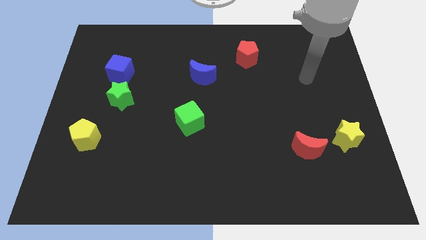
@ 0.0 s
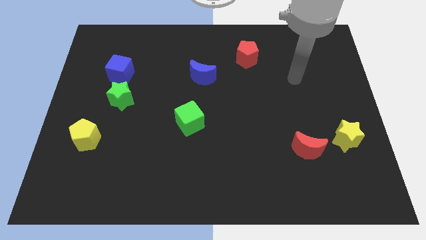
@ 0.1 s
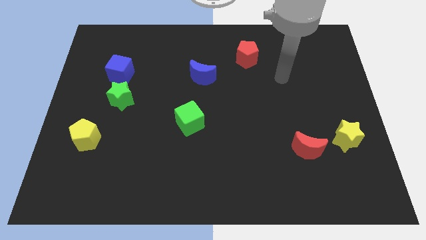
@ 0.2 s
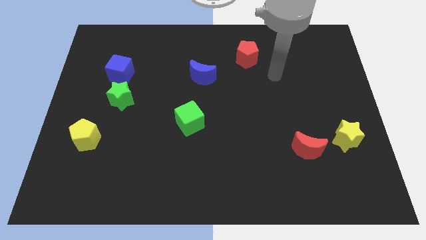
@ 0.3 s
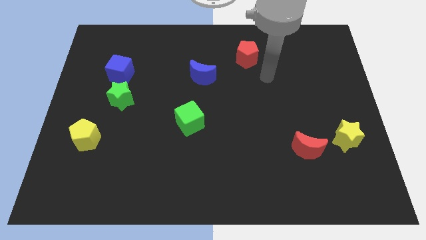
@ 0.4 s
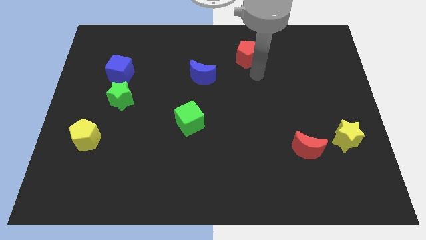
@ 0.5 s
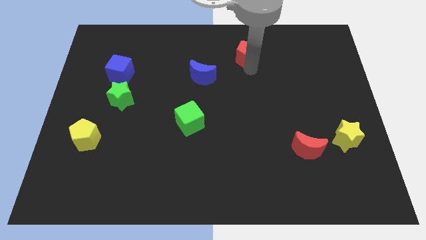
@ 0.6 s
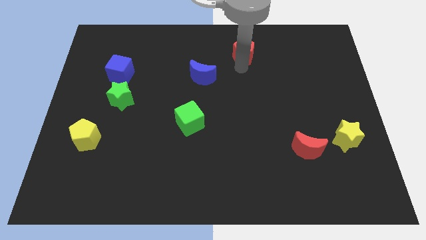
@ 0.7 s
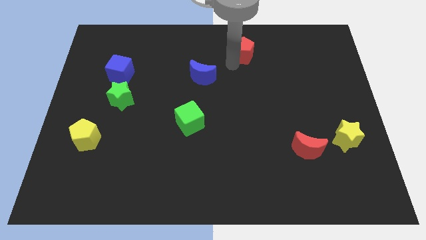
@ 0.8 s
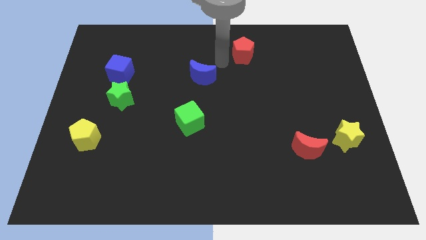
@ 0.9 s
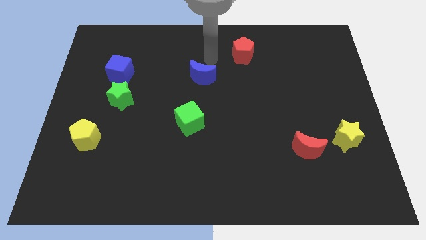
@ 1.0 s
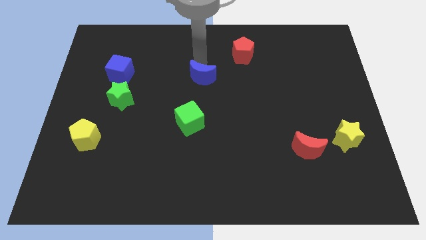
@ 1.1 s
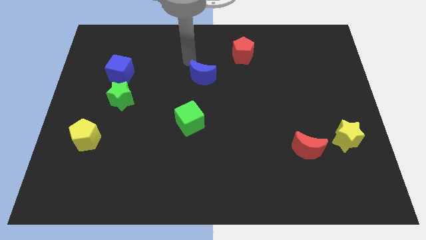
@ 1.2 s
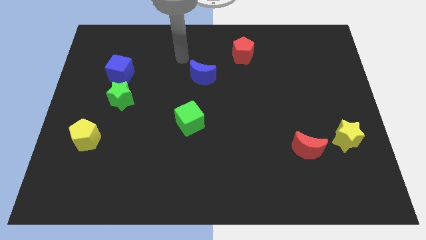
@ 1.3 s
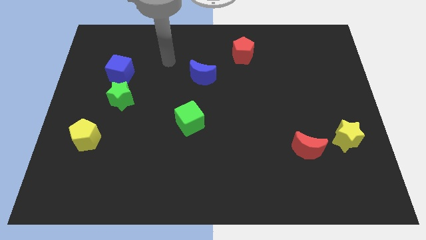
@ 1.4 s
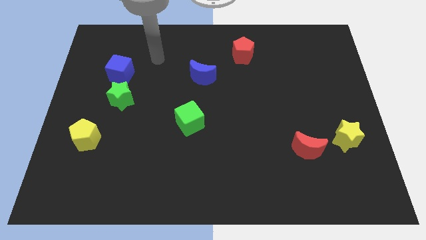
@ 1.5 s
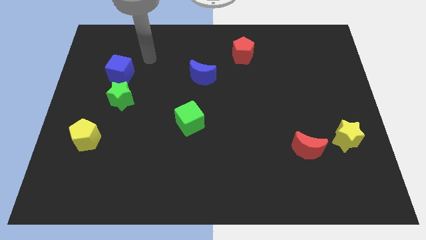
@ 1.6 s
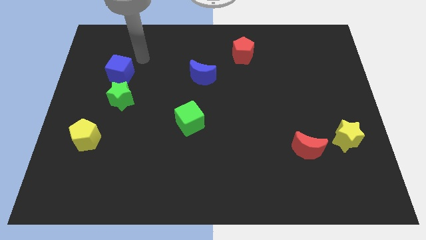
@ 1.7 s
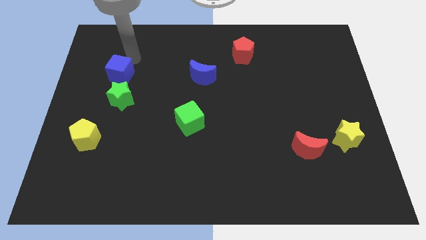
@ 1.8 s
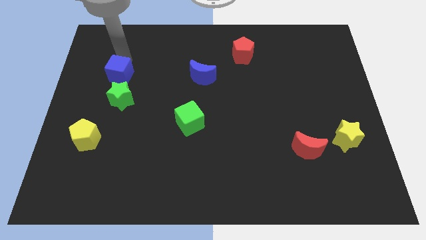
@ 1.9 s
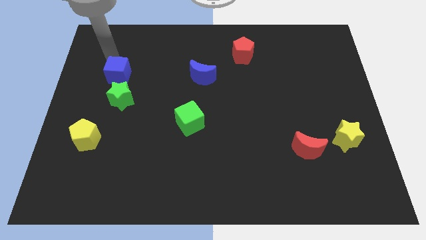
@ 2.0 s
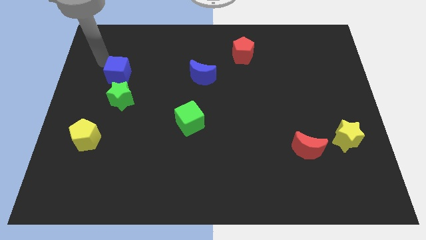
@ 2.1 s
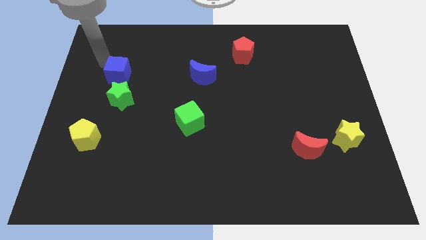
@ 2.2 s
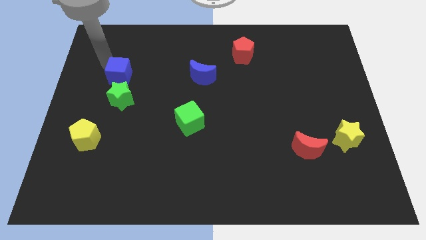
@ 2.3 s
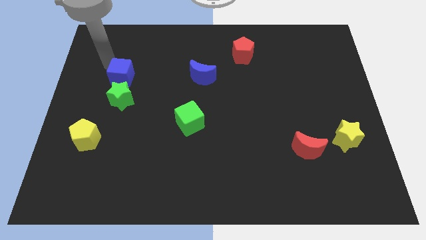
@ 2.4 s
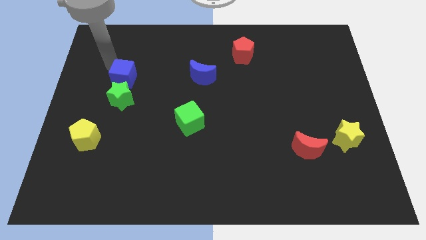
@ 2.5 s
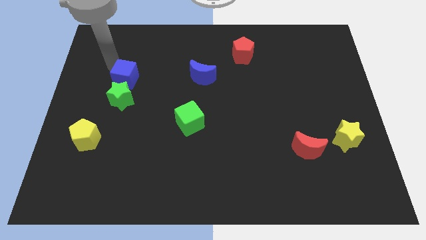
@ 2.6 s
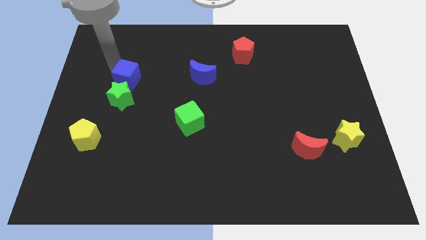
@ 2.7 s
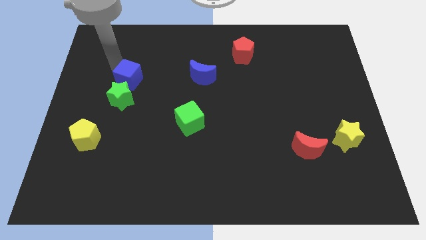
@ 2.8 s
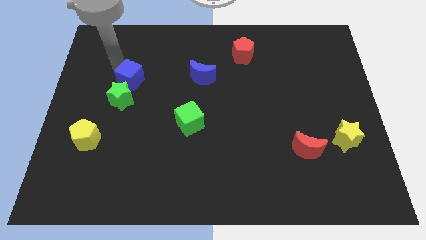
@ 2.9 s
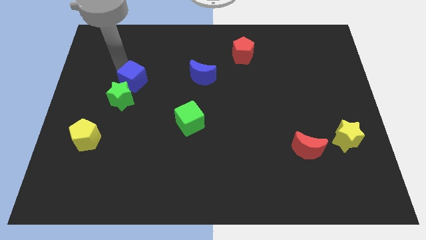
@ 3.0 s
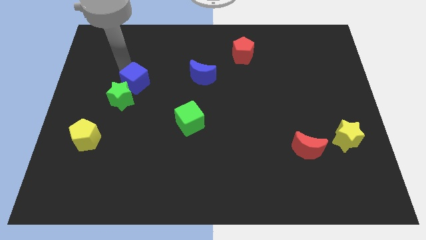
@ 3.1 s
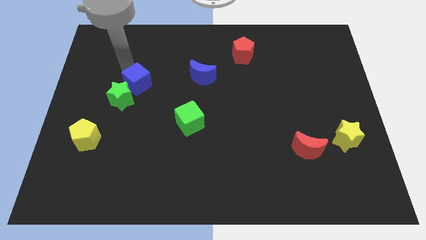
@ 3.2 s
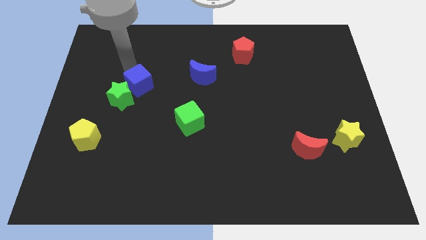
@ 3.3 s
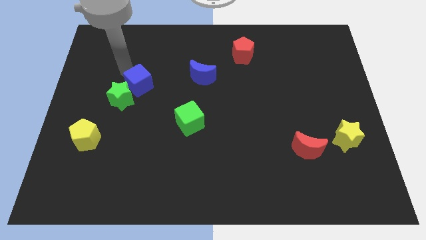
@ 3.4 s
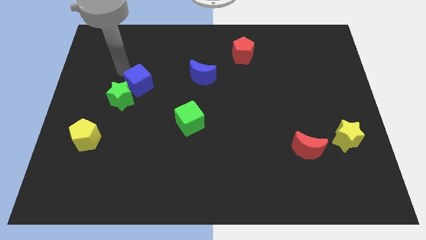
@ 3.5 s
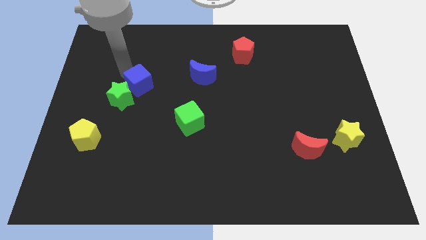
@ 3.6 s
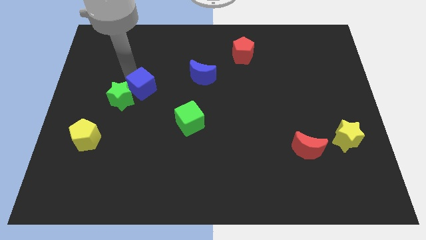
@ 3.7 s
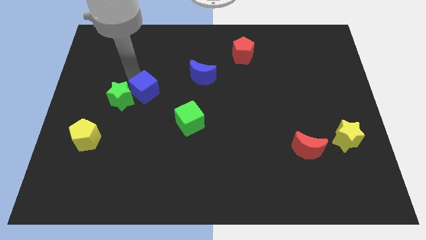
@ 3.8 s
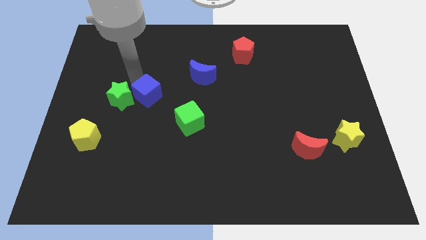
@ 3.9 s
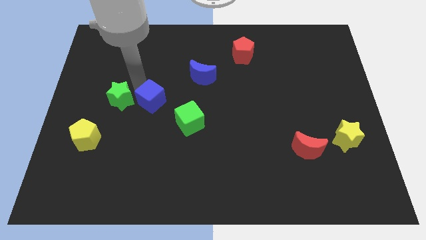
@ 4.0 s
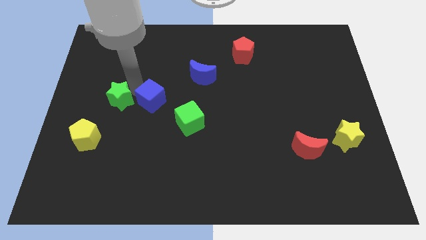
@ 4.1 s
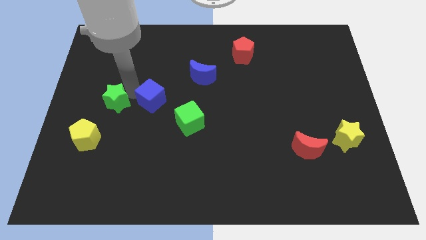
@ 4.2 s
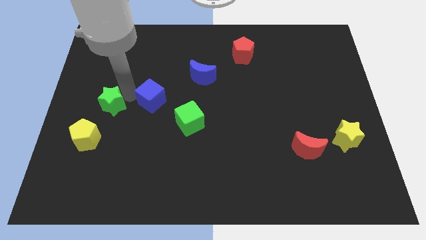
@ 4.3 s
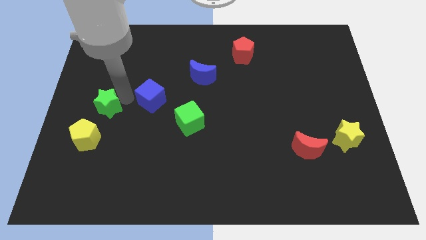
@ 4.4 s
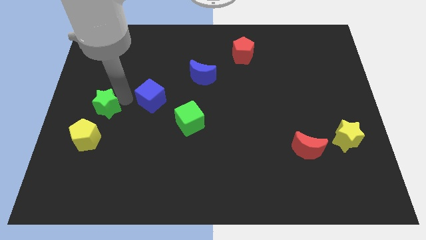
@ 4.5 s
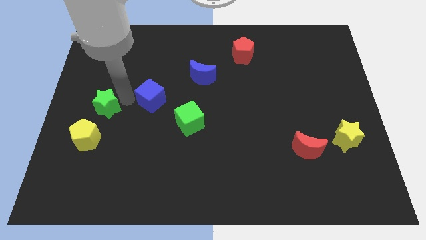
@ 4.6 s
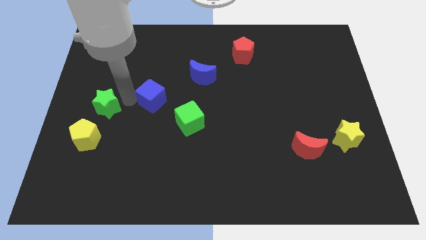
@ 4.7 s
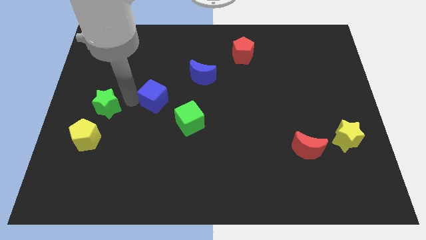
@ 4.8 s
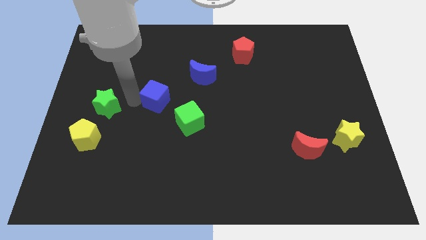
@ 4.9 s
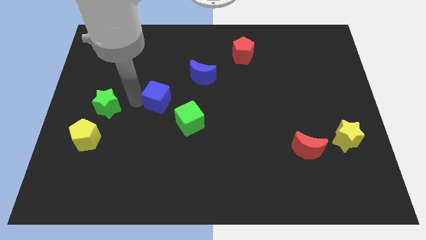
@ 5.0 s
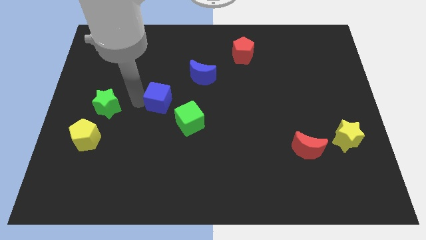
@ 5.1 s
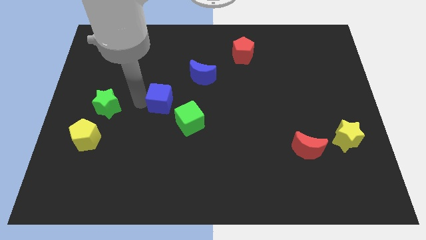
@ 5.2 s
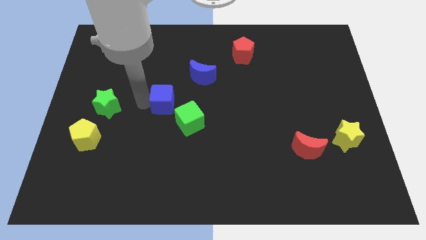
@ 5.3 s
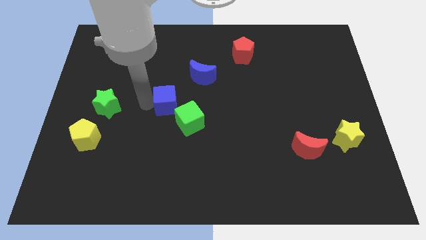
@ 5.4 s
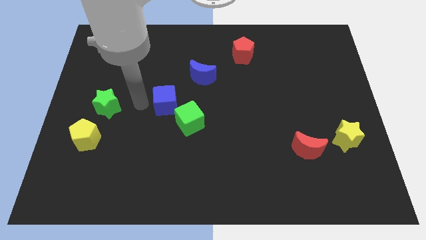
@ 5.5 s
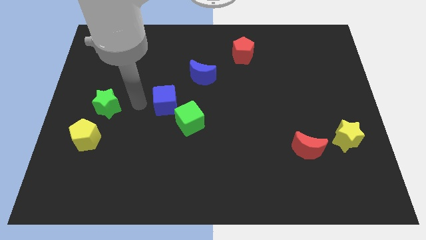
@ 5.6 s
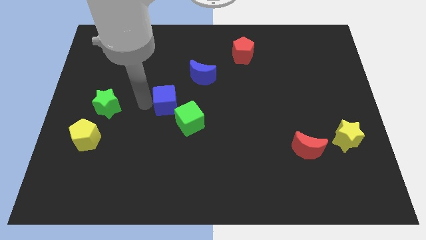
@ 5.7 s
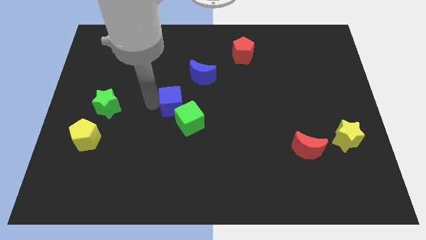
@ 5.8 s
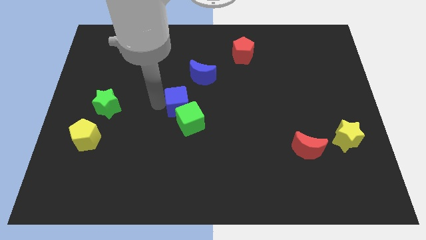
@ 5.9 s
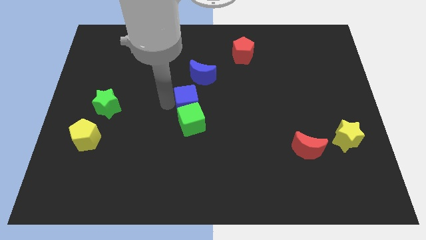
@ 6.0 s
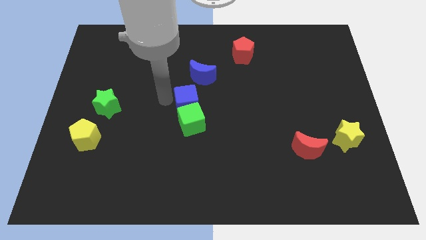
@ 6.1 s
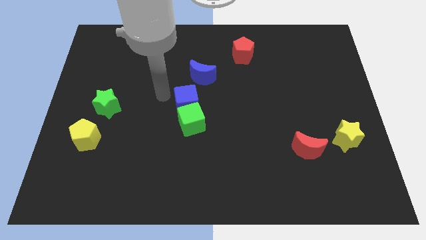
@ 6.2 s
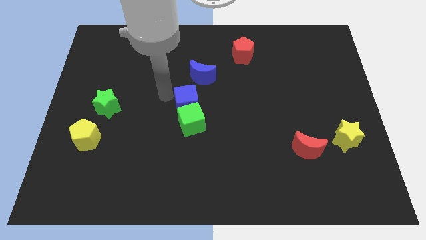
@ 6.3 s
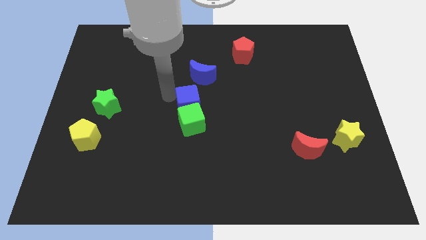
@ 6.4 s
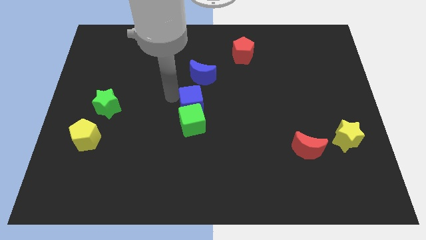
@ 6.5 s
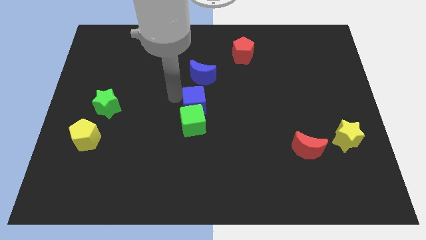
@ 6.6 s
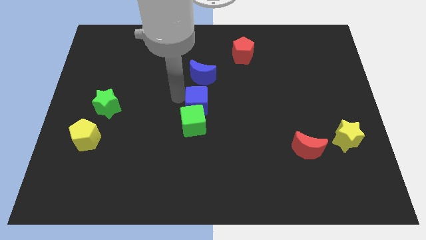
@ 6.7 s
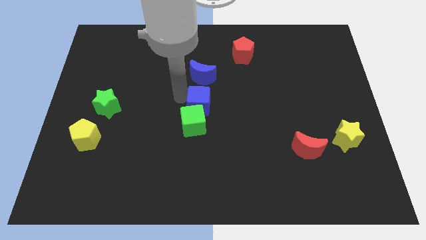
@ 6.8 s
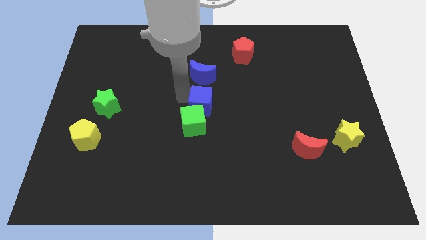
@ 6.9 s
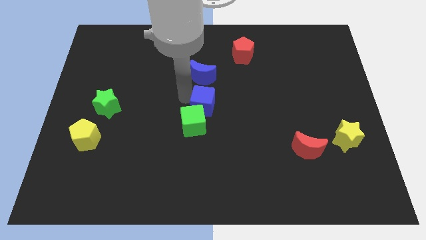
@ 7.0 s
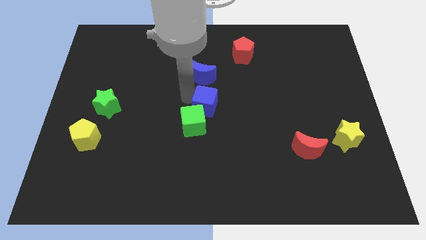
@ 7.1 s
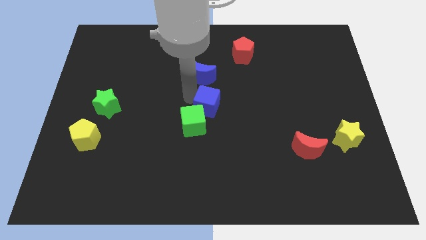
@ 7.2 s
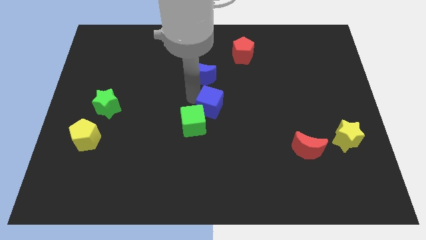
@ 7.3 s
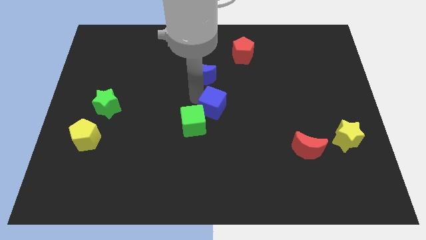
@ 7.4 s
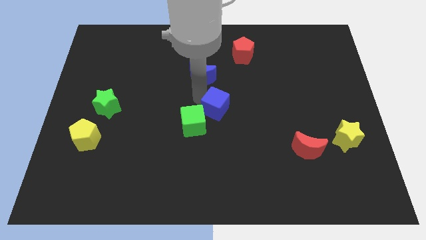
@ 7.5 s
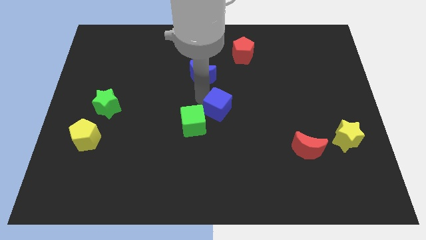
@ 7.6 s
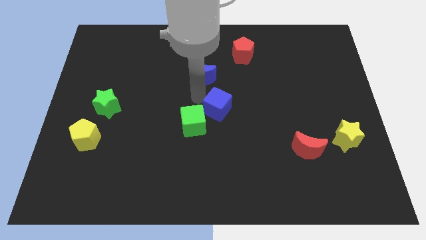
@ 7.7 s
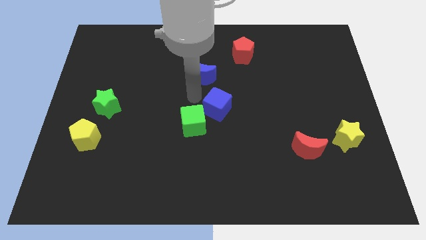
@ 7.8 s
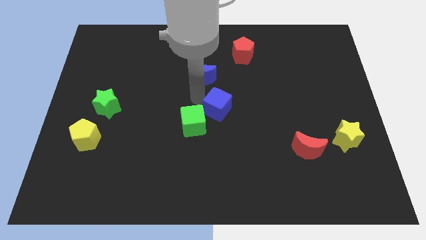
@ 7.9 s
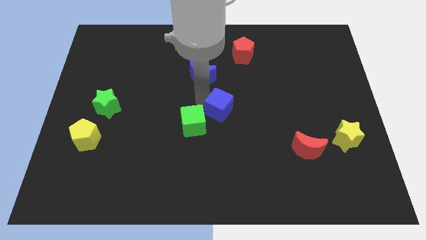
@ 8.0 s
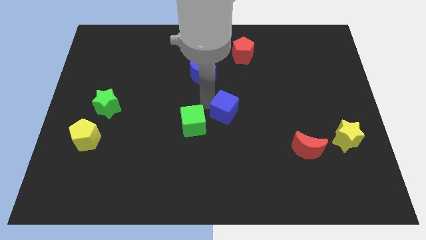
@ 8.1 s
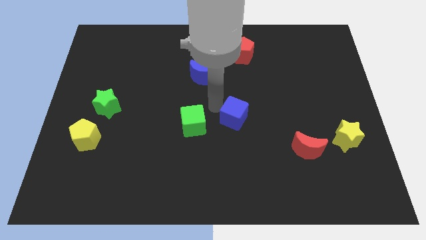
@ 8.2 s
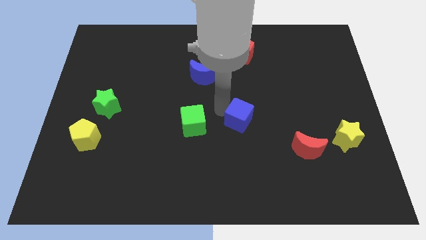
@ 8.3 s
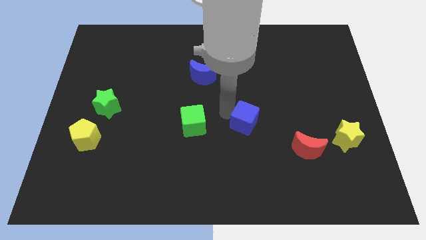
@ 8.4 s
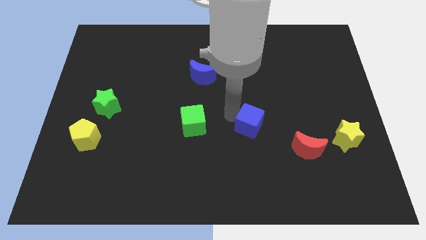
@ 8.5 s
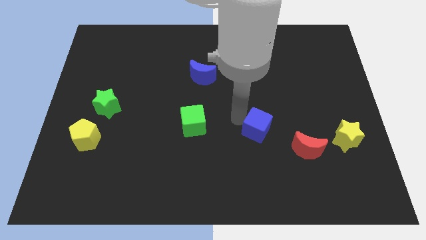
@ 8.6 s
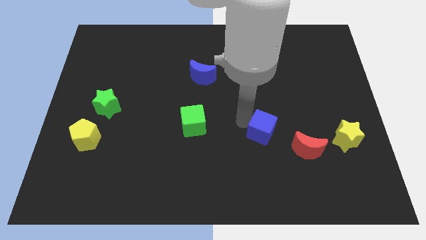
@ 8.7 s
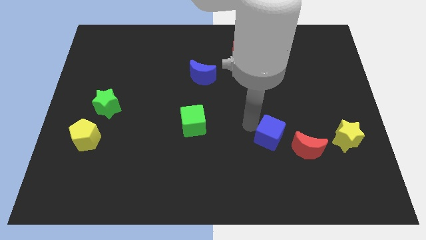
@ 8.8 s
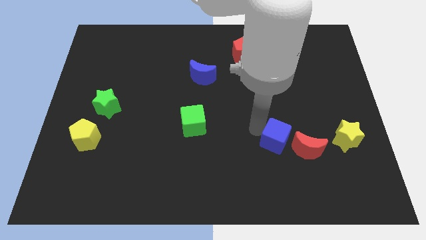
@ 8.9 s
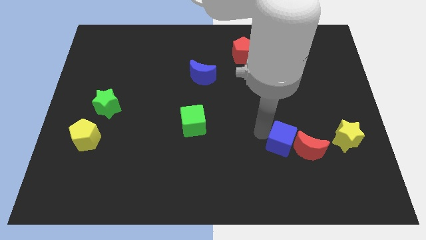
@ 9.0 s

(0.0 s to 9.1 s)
slide the blue cube towards the red moon
